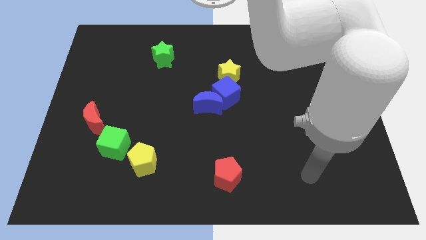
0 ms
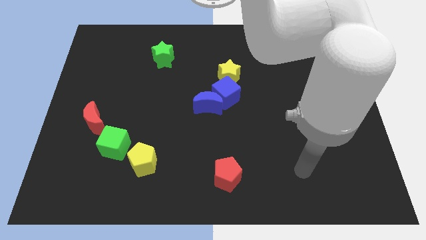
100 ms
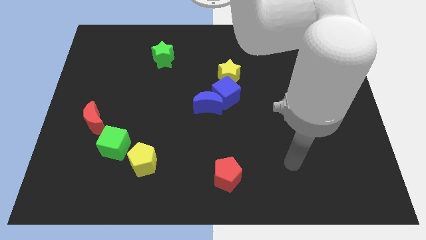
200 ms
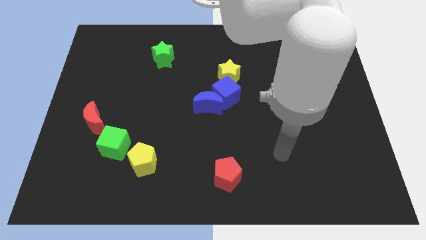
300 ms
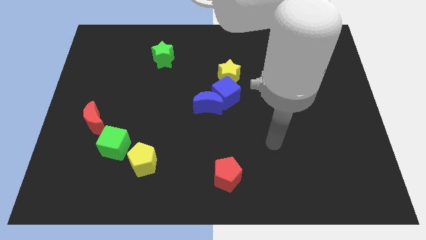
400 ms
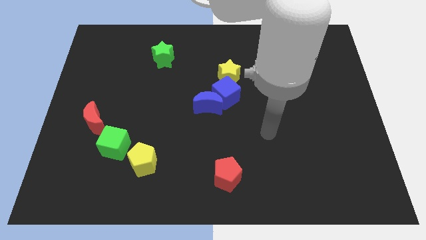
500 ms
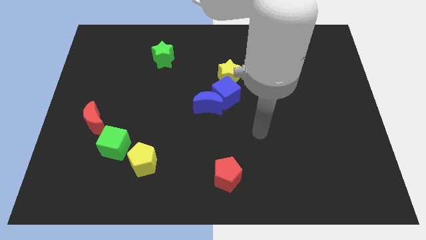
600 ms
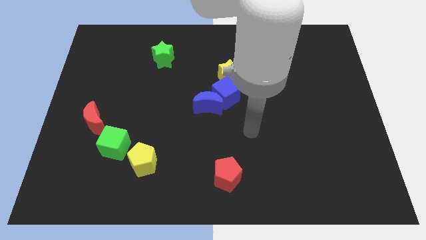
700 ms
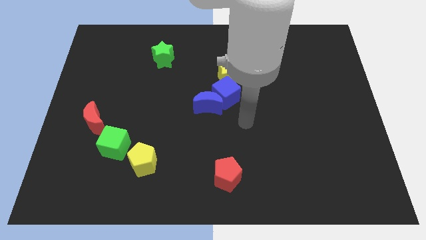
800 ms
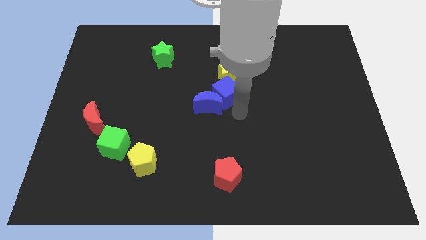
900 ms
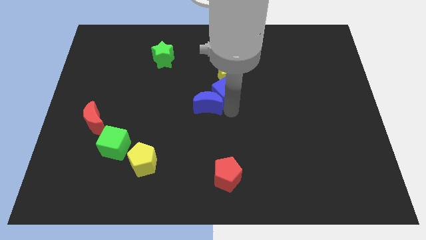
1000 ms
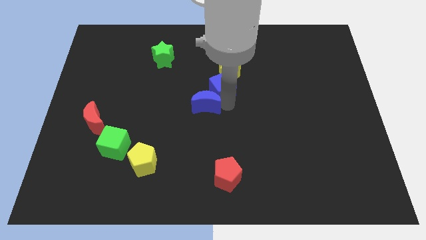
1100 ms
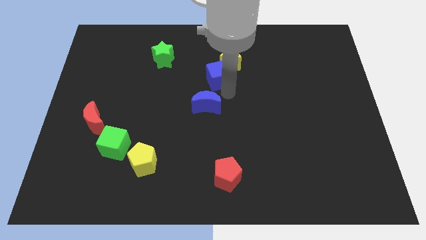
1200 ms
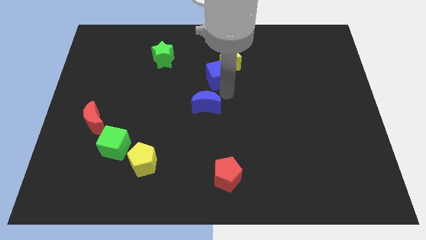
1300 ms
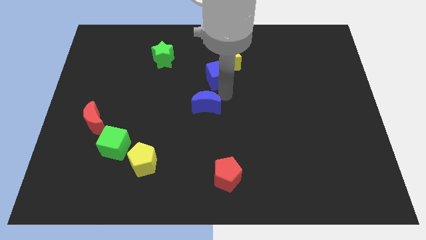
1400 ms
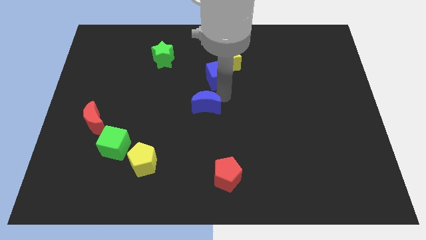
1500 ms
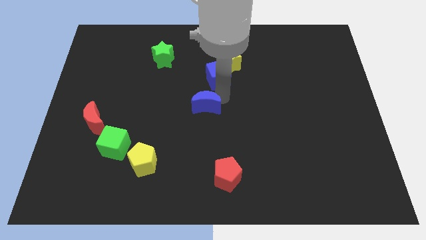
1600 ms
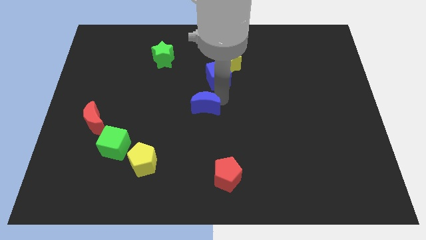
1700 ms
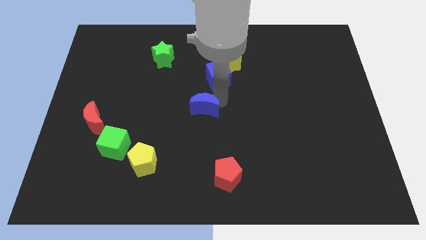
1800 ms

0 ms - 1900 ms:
move the blue moon away from the blue cube

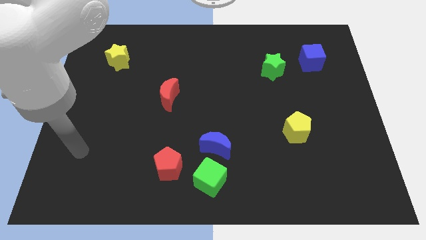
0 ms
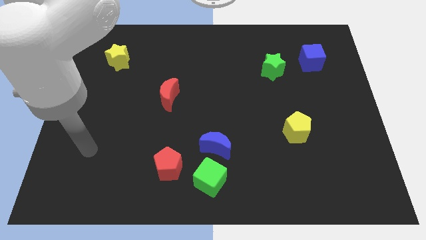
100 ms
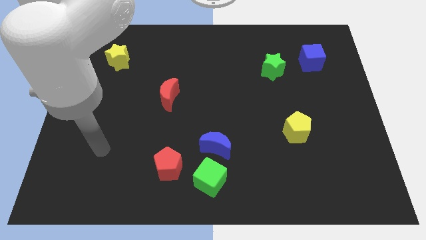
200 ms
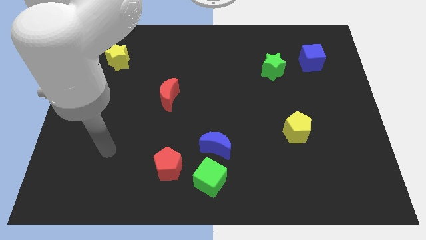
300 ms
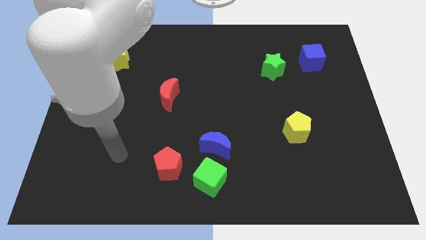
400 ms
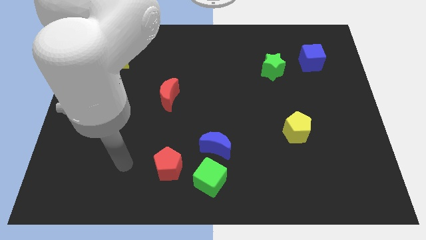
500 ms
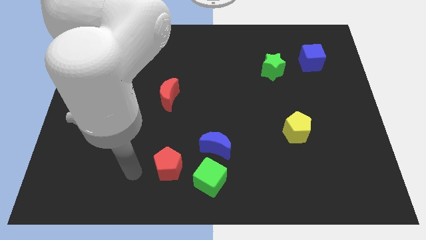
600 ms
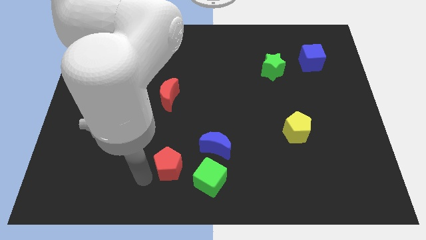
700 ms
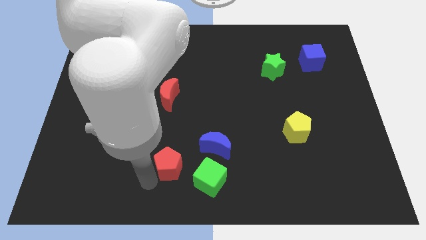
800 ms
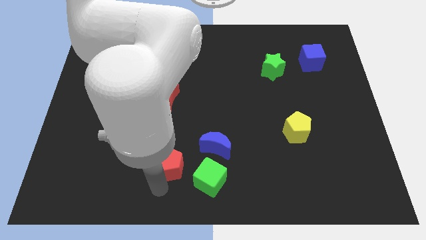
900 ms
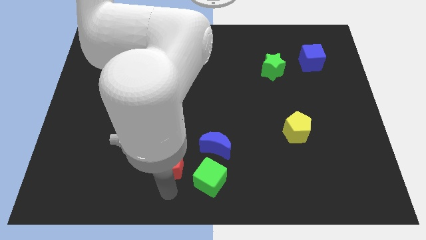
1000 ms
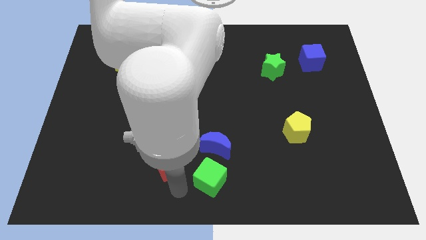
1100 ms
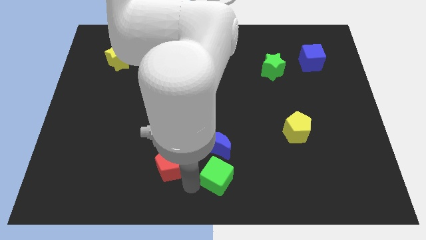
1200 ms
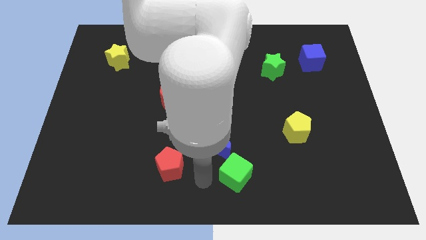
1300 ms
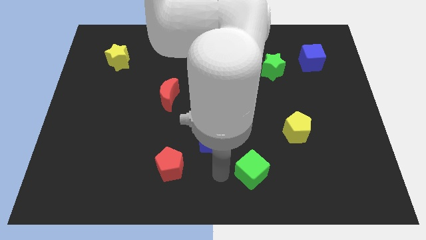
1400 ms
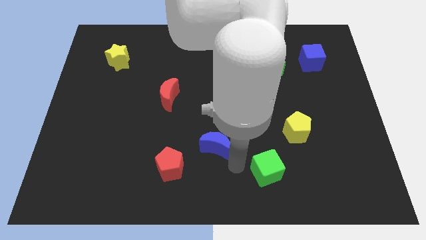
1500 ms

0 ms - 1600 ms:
move the blue moon away from the green cube

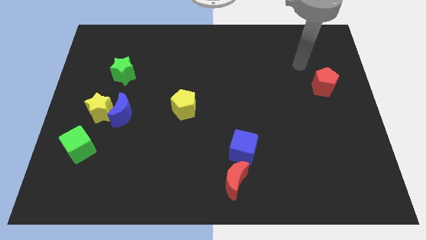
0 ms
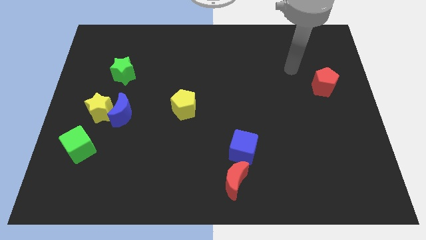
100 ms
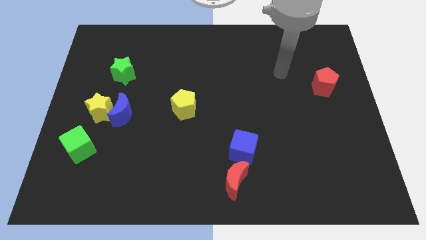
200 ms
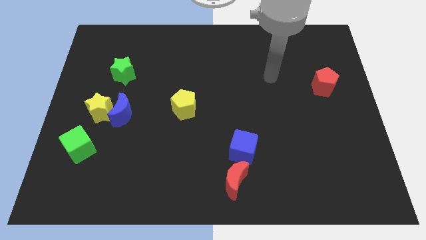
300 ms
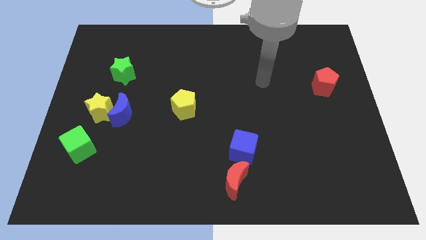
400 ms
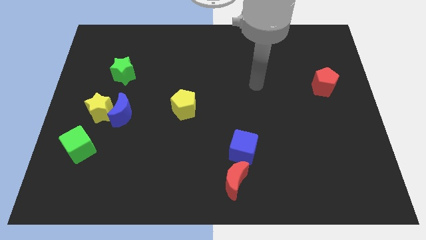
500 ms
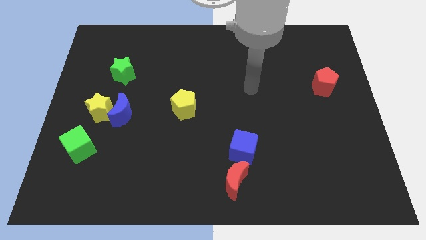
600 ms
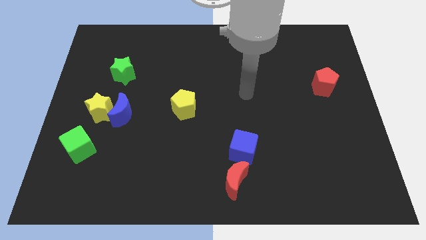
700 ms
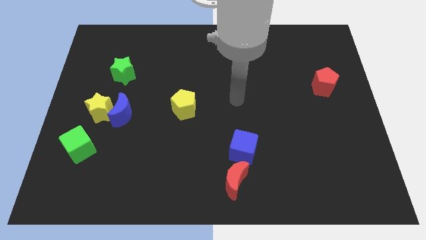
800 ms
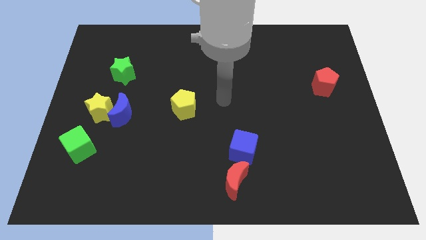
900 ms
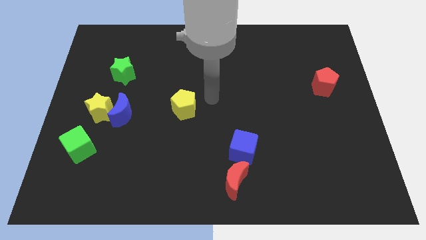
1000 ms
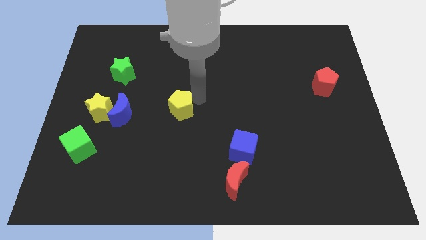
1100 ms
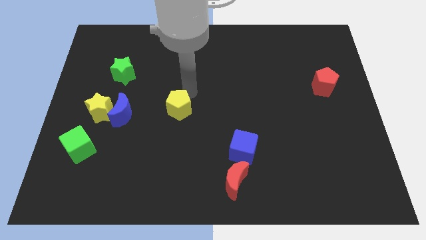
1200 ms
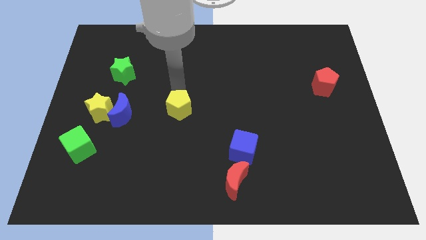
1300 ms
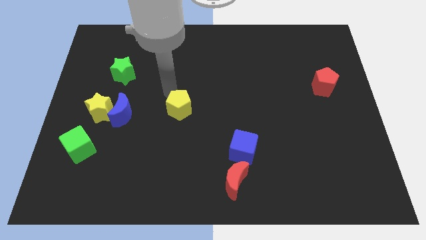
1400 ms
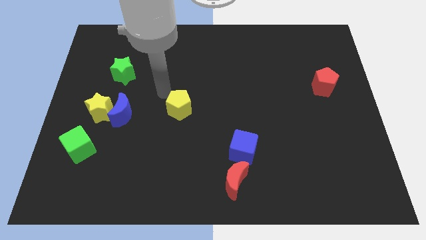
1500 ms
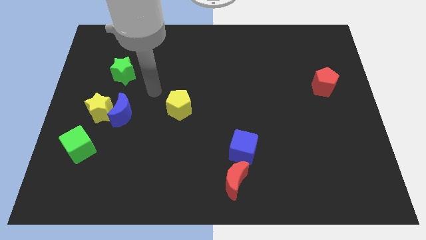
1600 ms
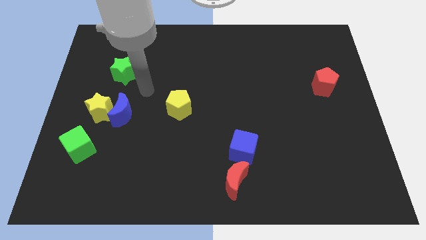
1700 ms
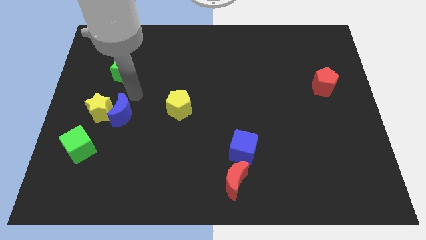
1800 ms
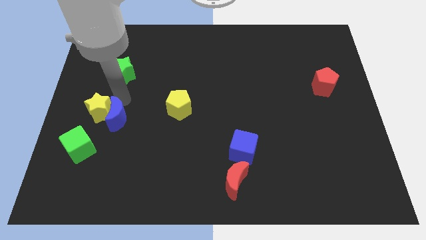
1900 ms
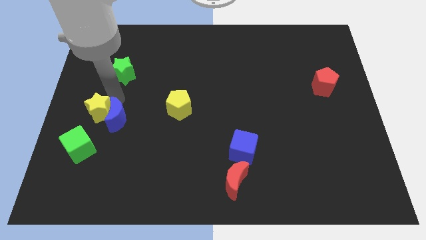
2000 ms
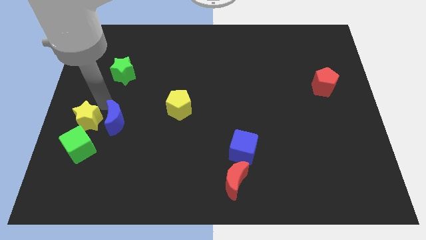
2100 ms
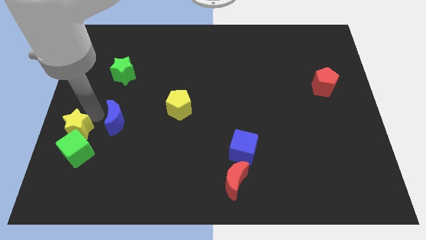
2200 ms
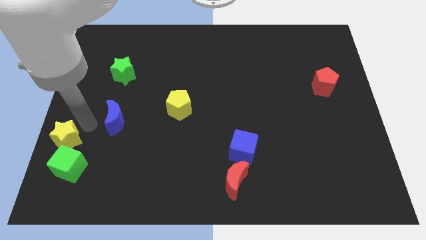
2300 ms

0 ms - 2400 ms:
separate the blue moon from the yellow star

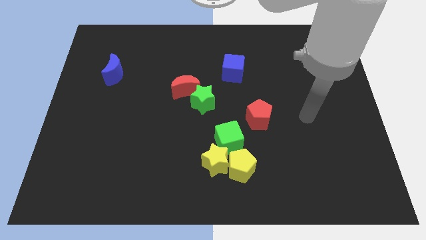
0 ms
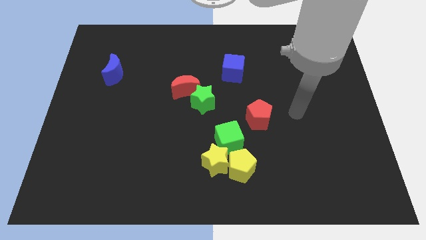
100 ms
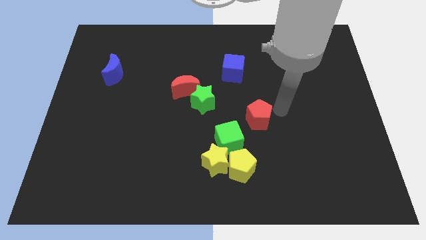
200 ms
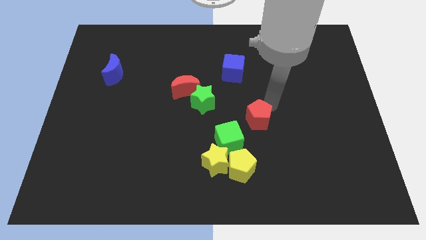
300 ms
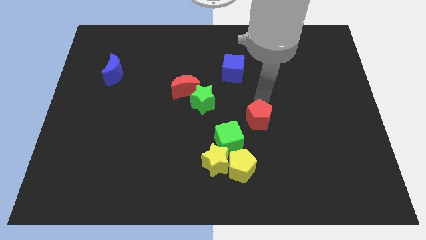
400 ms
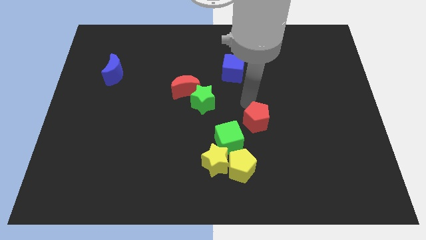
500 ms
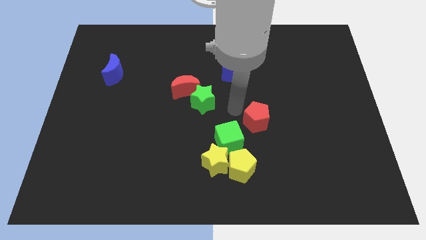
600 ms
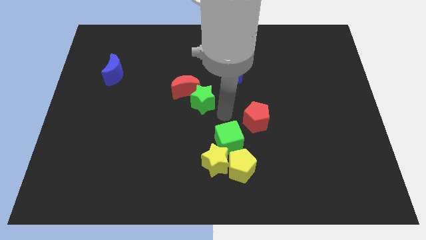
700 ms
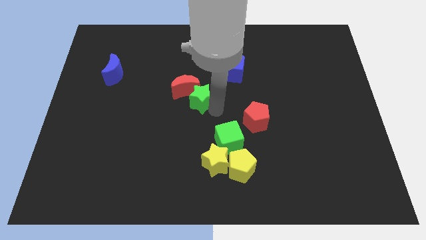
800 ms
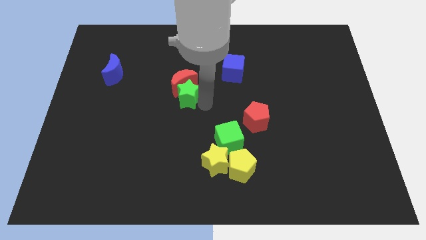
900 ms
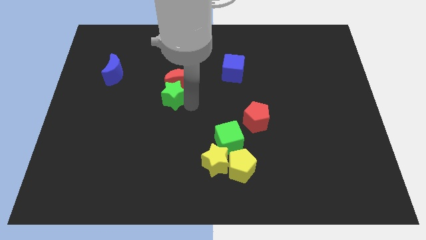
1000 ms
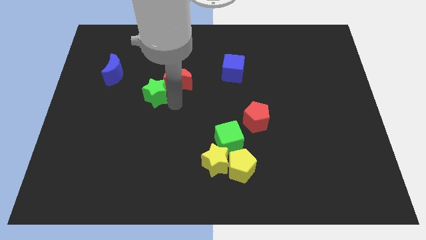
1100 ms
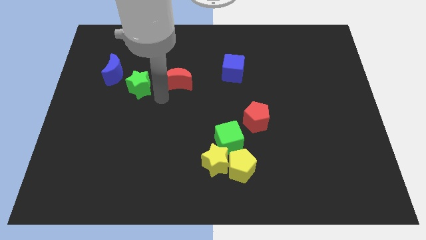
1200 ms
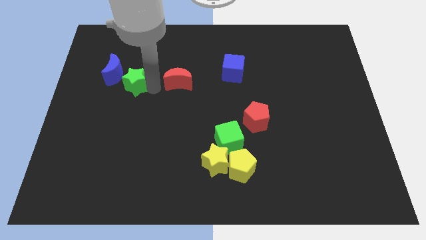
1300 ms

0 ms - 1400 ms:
pull the red moon apart from the green star

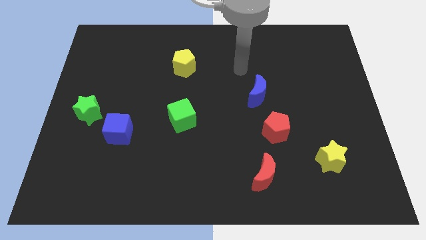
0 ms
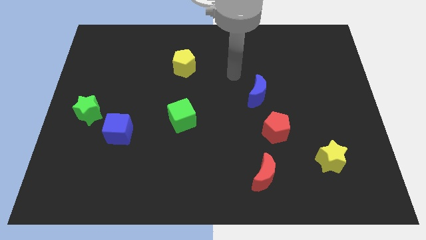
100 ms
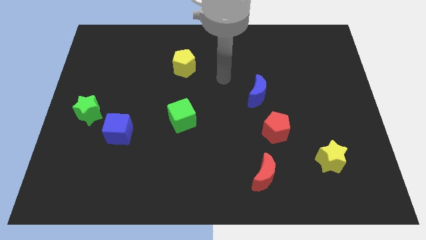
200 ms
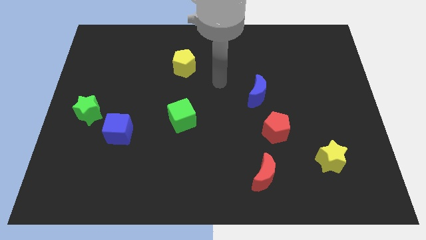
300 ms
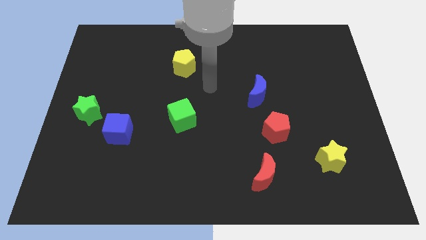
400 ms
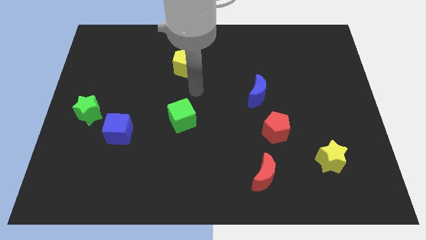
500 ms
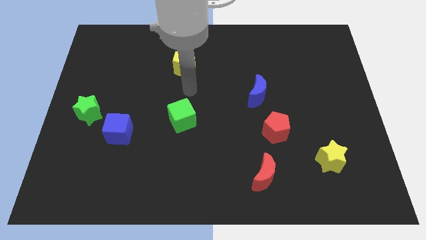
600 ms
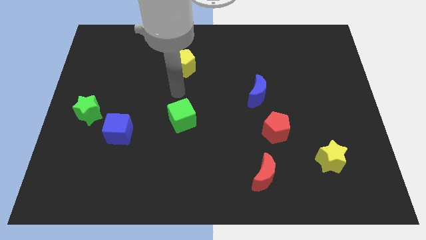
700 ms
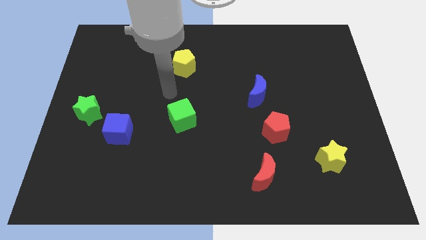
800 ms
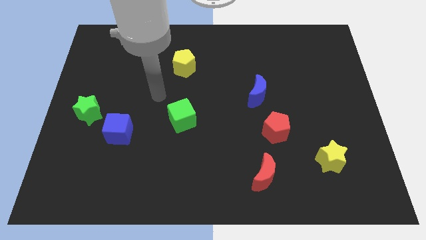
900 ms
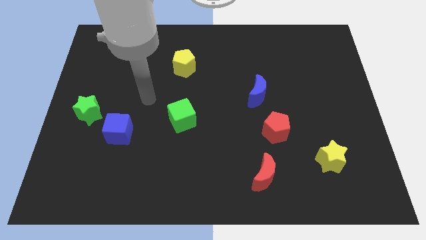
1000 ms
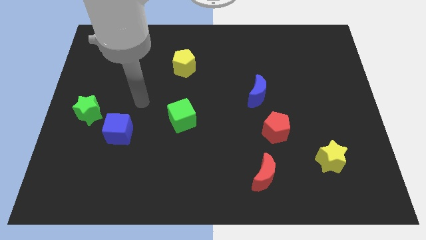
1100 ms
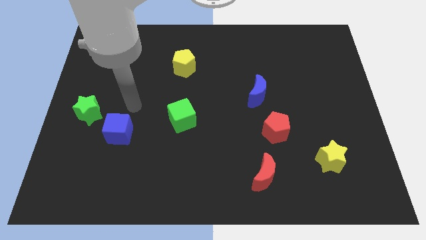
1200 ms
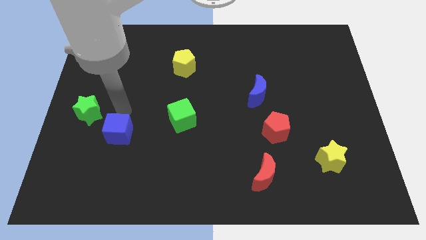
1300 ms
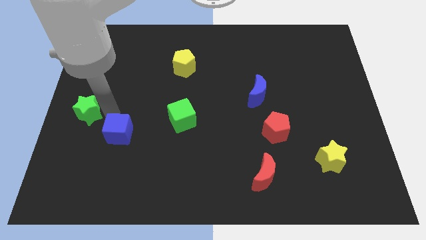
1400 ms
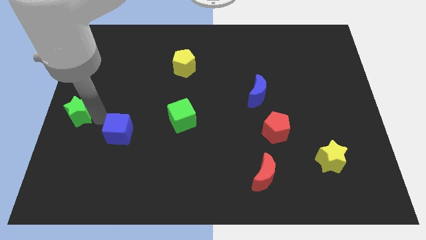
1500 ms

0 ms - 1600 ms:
separate the blue cube from the green star

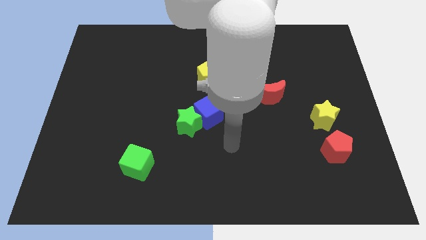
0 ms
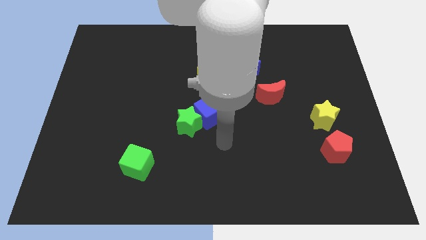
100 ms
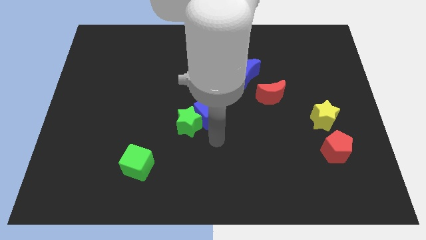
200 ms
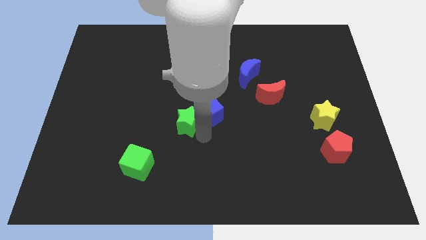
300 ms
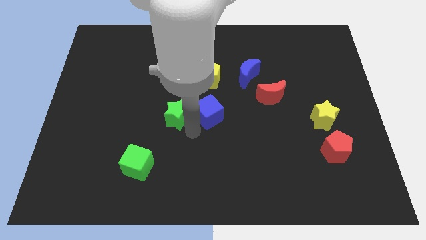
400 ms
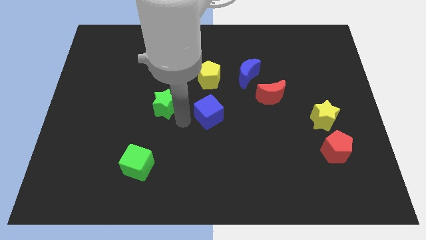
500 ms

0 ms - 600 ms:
pull the blue cube apart from the green star

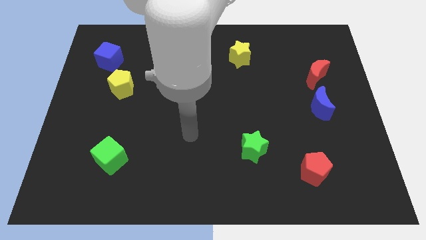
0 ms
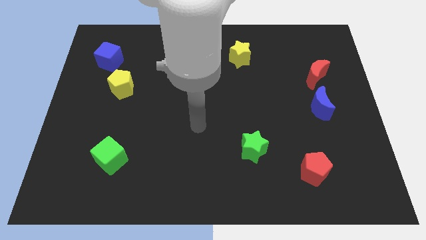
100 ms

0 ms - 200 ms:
move the red moon away from the blue moon
